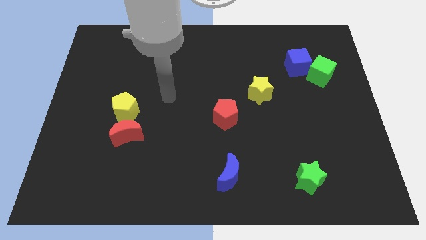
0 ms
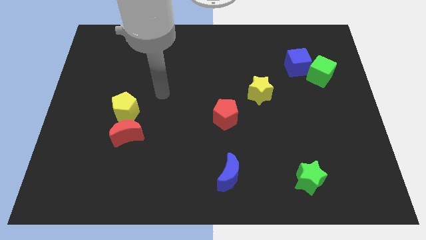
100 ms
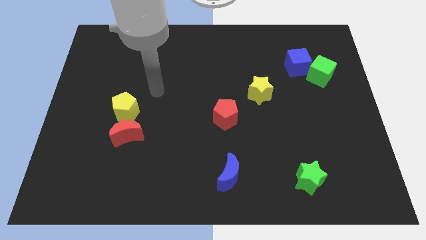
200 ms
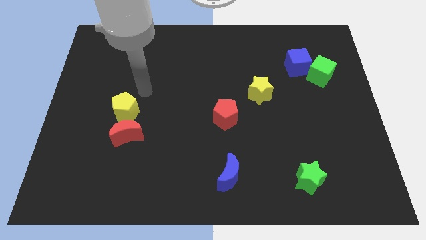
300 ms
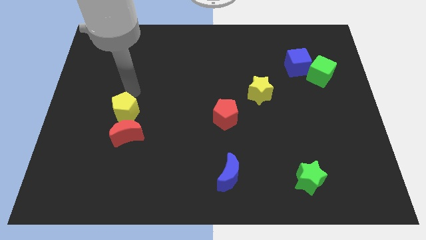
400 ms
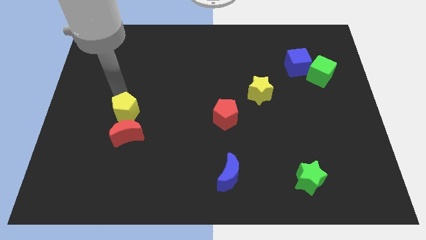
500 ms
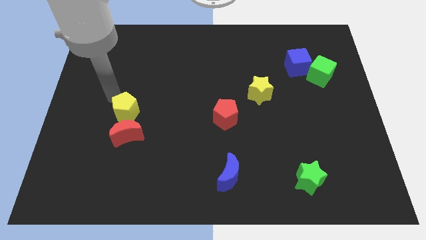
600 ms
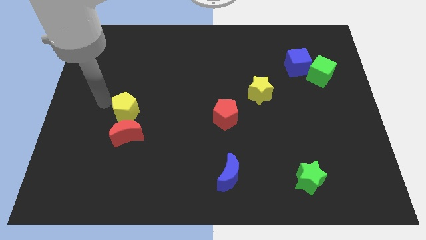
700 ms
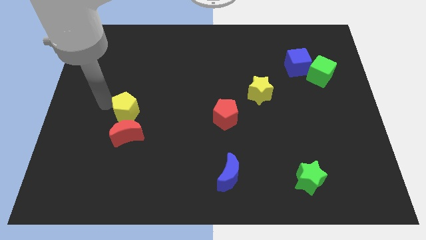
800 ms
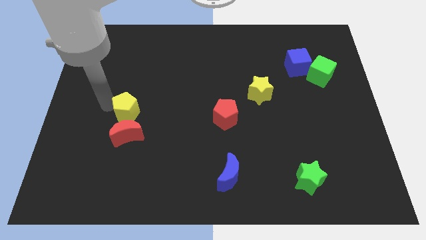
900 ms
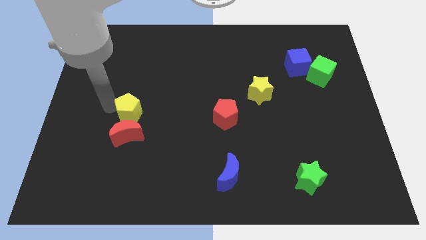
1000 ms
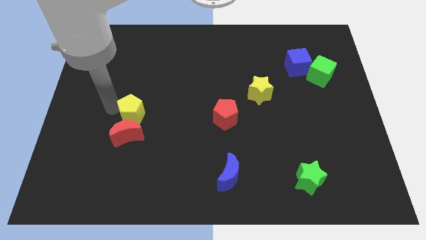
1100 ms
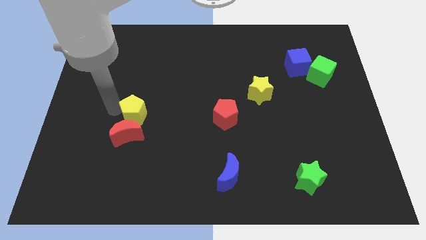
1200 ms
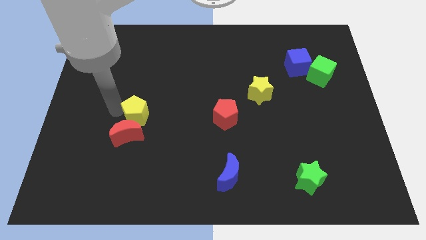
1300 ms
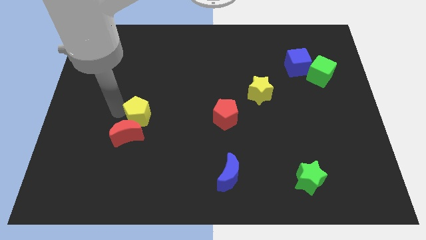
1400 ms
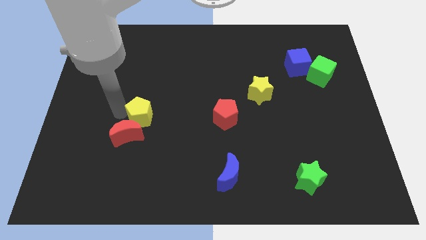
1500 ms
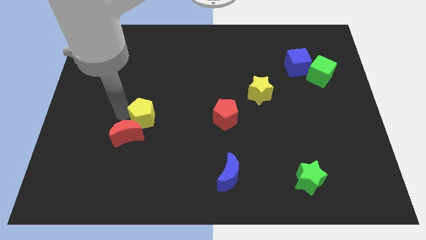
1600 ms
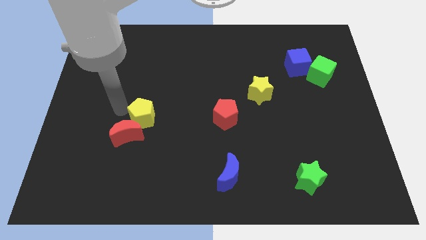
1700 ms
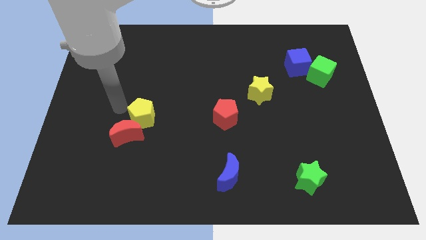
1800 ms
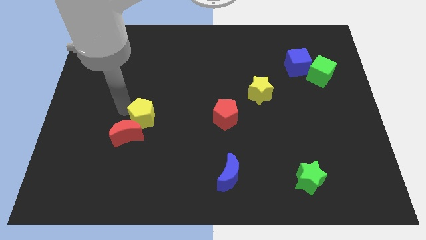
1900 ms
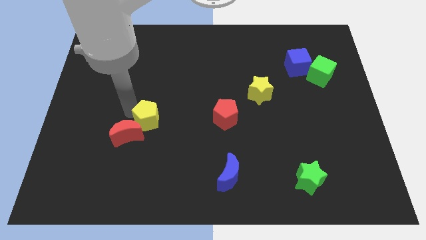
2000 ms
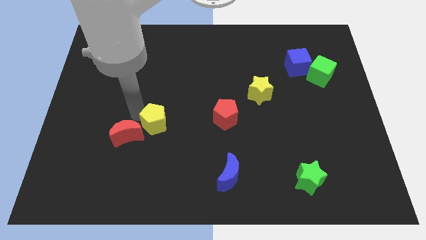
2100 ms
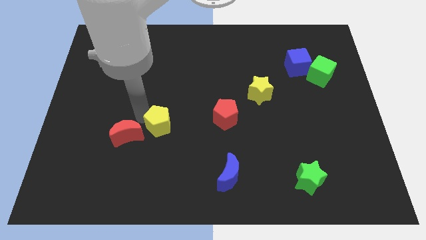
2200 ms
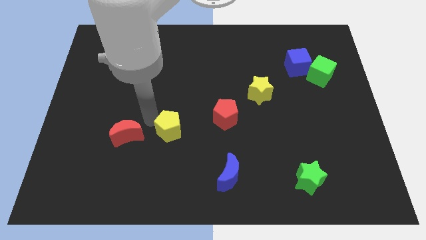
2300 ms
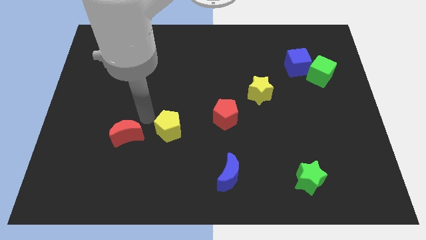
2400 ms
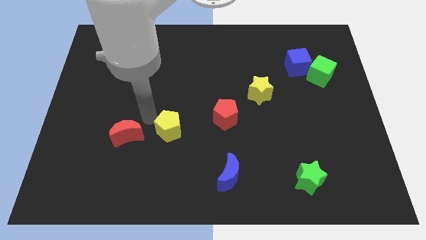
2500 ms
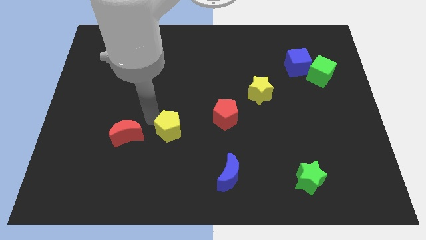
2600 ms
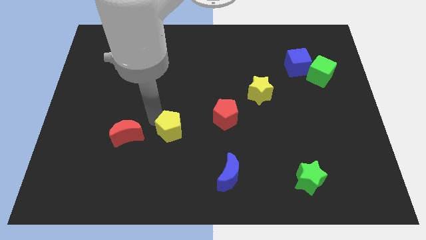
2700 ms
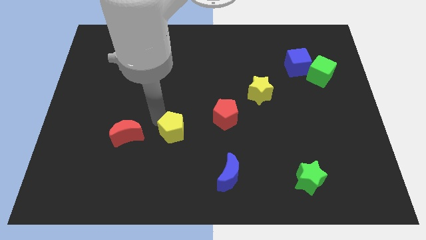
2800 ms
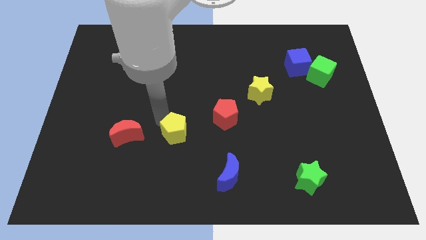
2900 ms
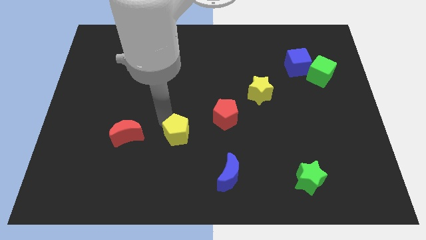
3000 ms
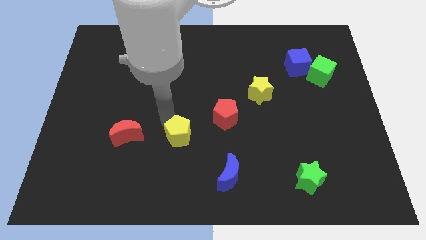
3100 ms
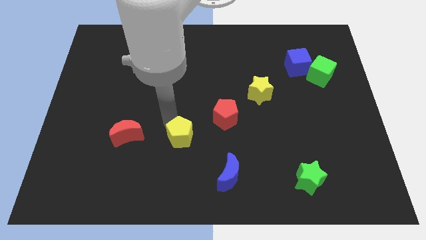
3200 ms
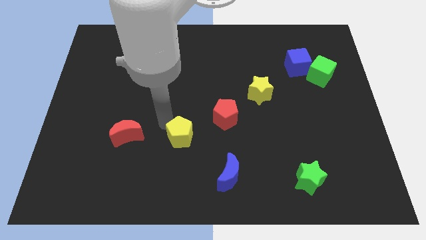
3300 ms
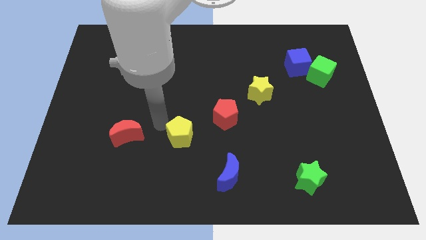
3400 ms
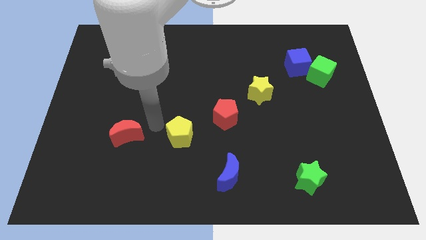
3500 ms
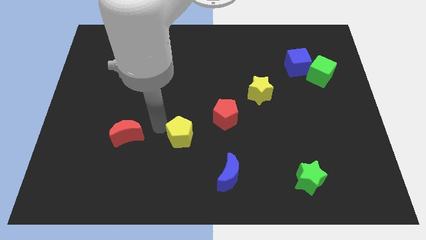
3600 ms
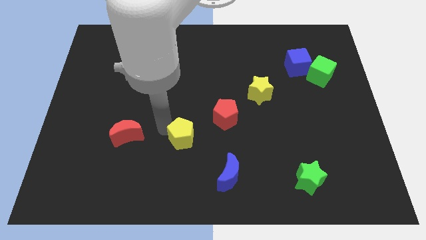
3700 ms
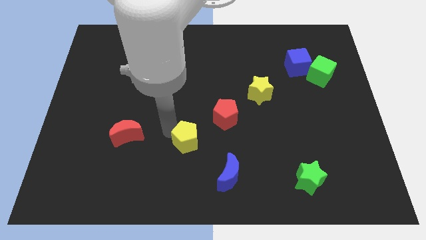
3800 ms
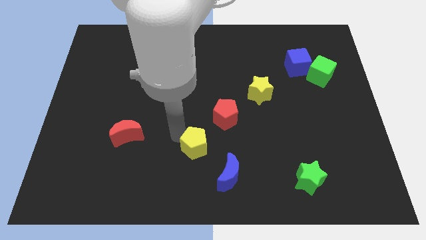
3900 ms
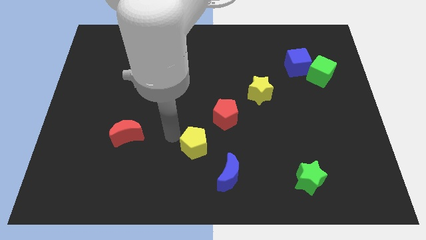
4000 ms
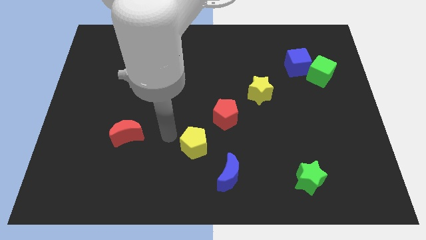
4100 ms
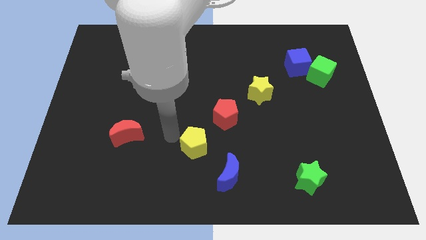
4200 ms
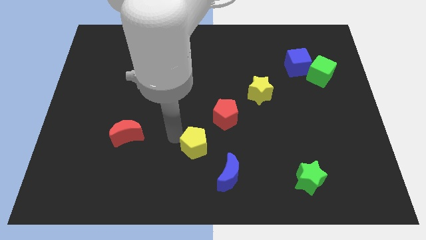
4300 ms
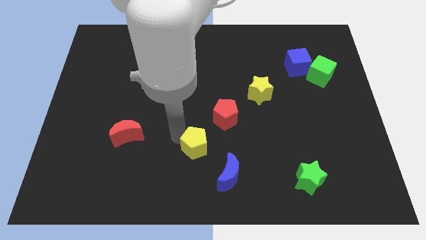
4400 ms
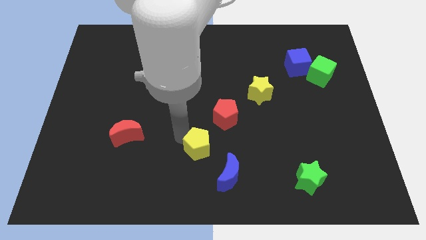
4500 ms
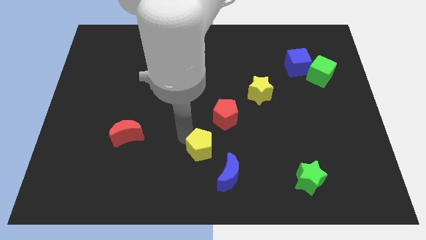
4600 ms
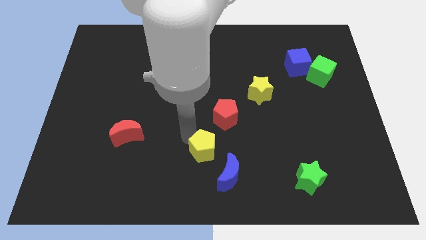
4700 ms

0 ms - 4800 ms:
move the yellow pentagon to the bottom of the red pentagon

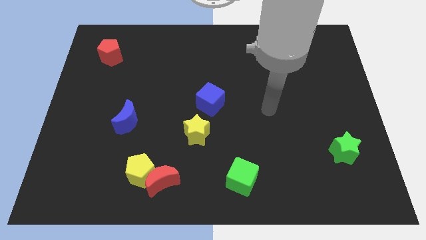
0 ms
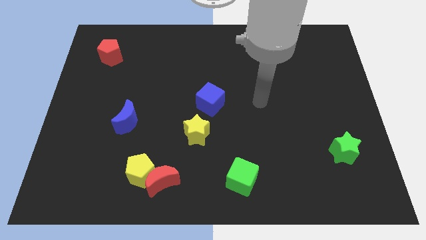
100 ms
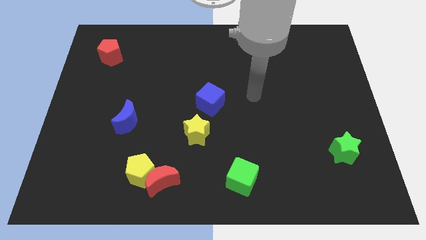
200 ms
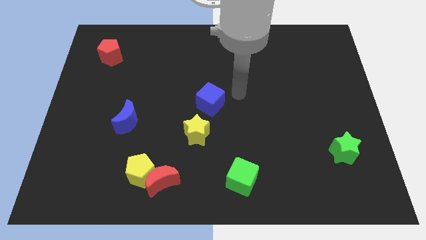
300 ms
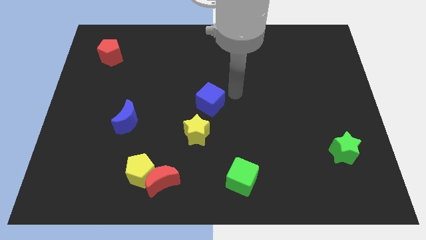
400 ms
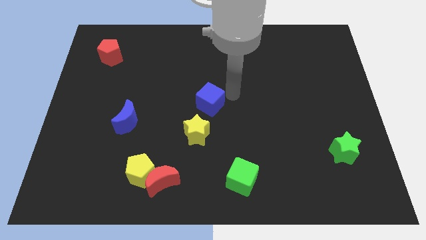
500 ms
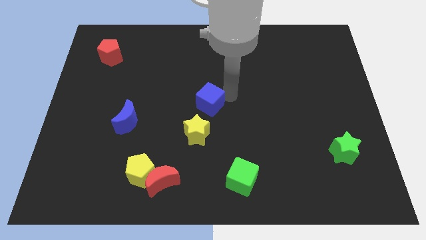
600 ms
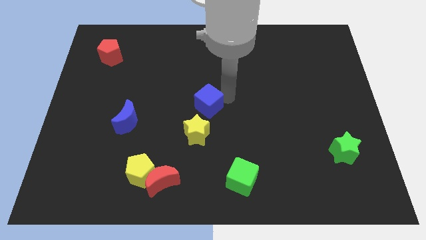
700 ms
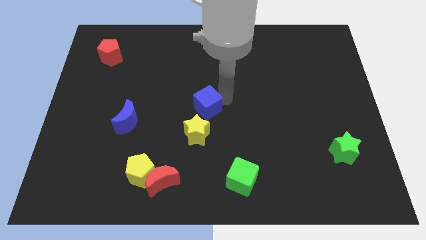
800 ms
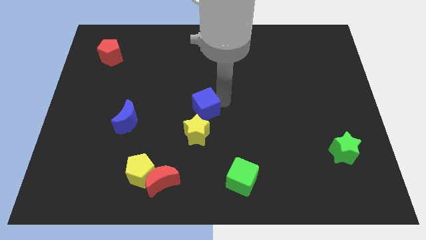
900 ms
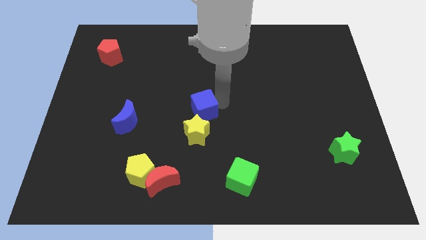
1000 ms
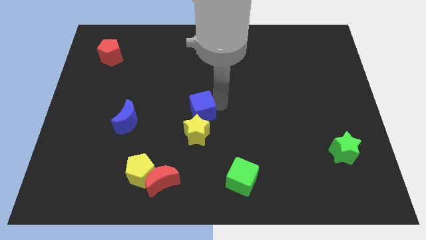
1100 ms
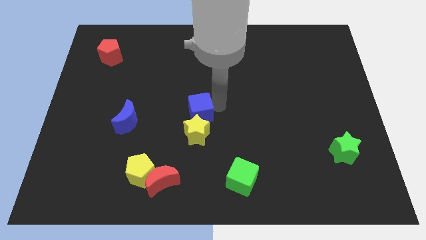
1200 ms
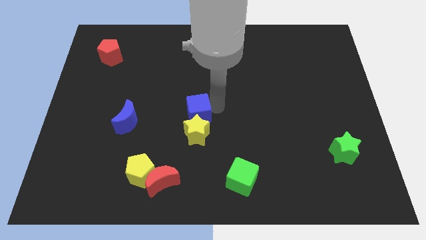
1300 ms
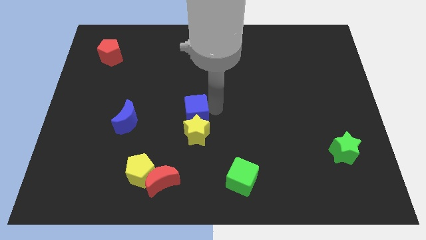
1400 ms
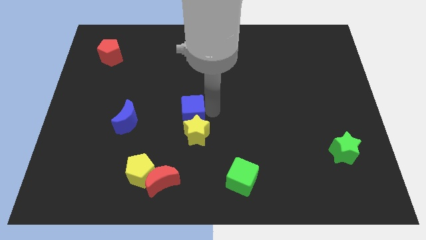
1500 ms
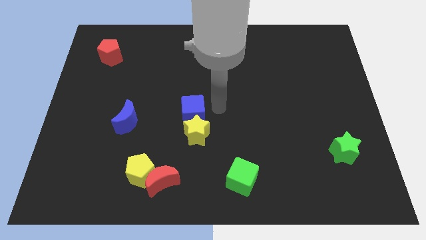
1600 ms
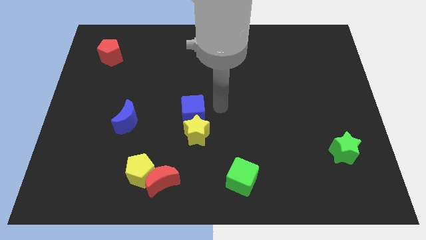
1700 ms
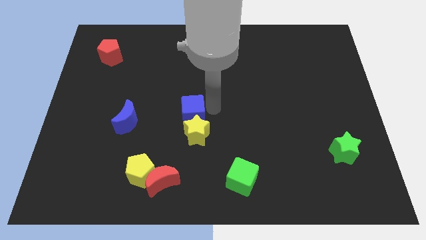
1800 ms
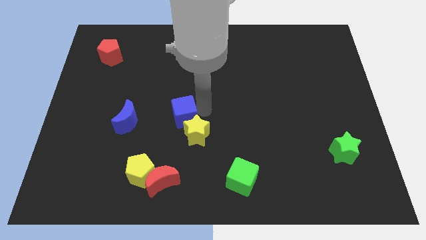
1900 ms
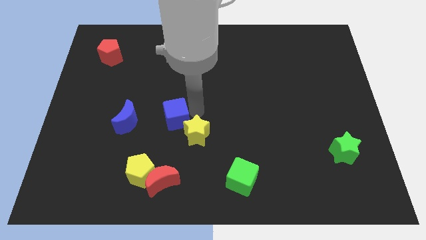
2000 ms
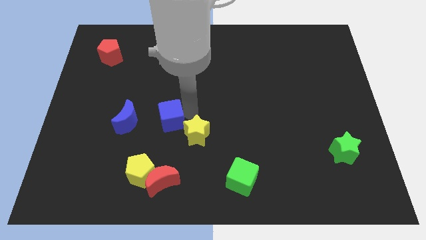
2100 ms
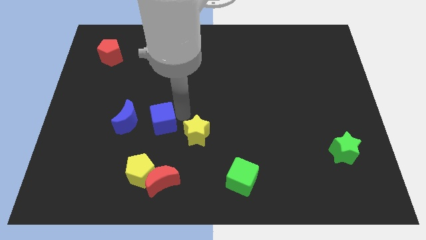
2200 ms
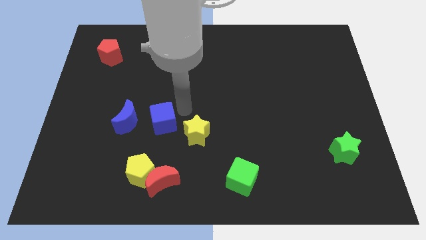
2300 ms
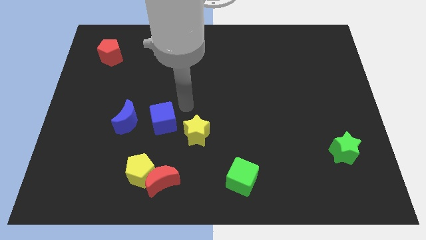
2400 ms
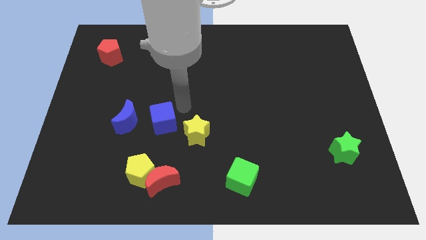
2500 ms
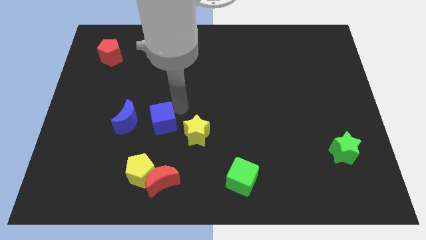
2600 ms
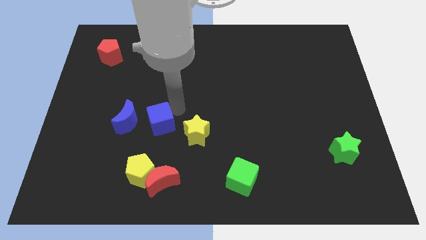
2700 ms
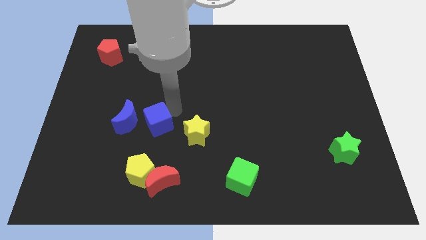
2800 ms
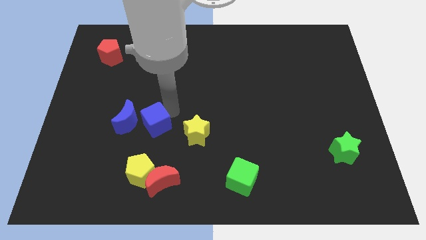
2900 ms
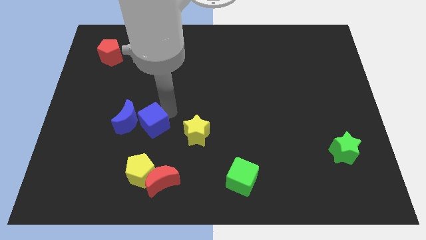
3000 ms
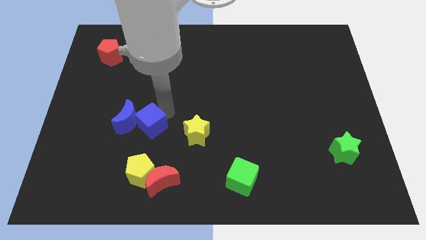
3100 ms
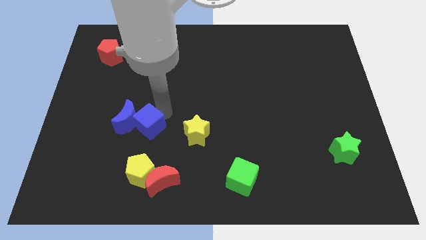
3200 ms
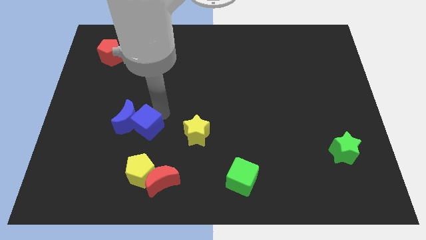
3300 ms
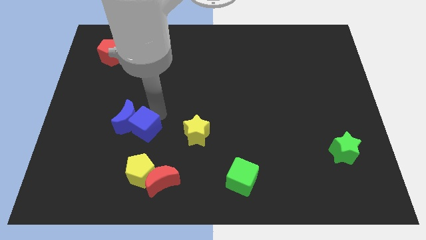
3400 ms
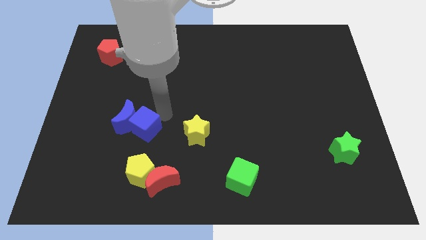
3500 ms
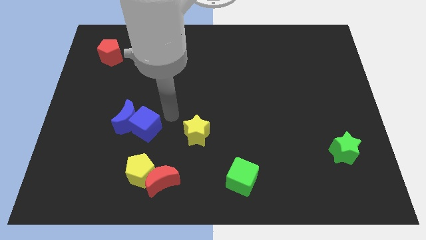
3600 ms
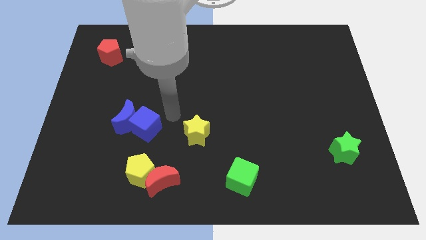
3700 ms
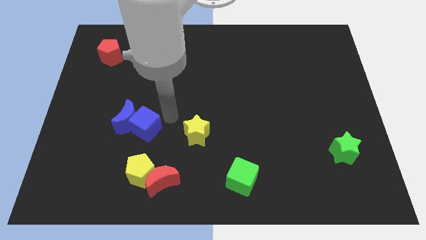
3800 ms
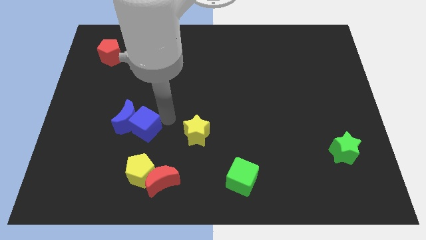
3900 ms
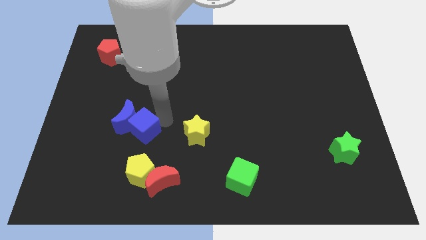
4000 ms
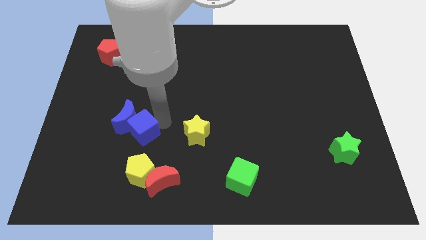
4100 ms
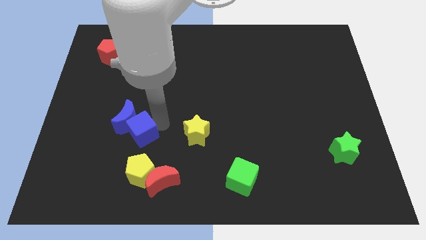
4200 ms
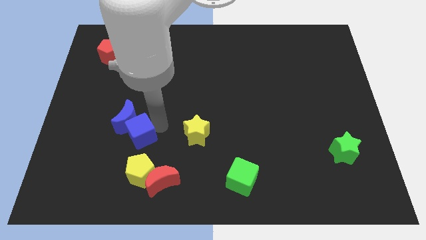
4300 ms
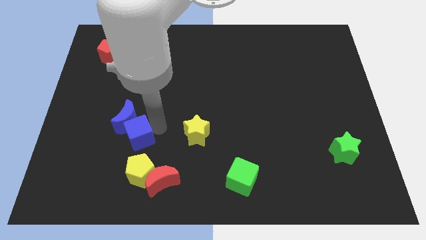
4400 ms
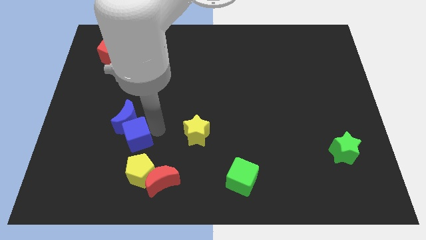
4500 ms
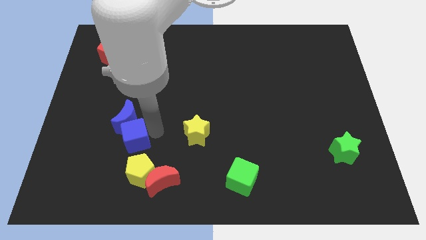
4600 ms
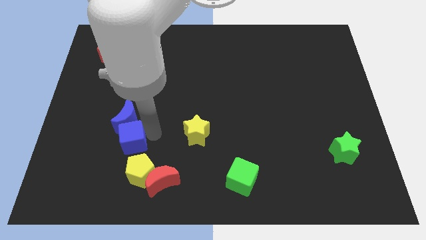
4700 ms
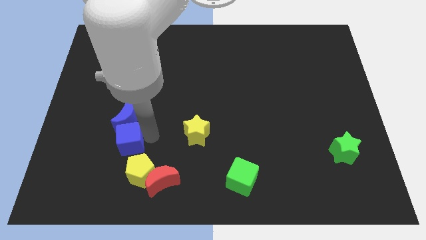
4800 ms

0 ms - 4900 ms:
push the blue cube to the bottom left side of the blue moon
